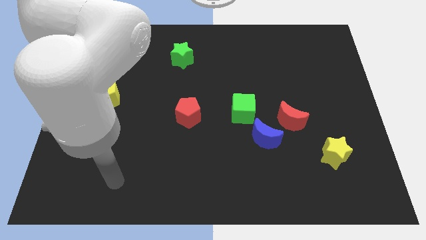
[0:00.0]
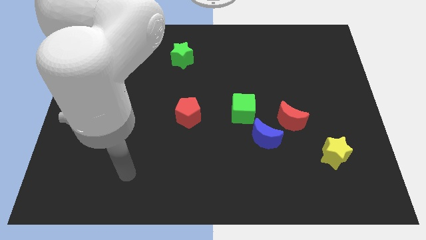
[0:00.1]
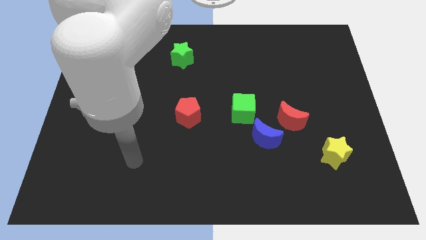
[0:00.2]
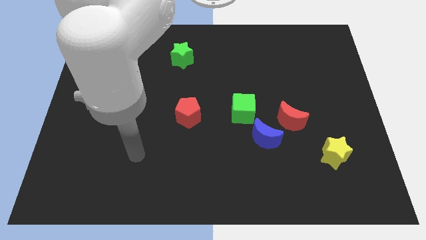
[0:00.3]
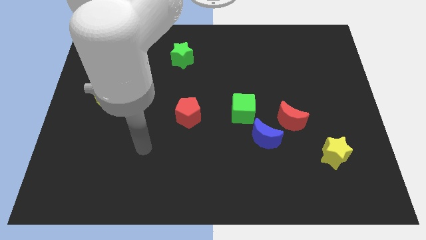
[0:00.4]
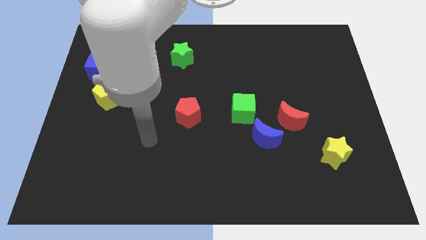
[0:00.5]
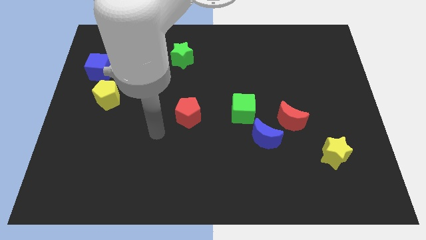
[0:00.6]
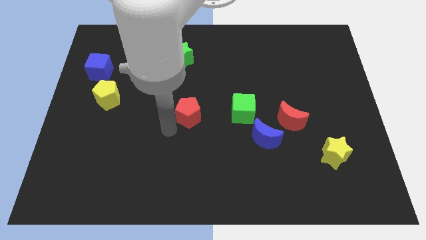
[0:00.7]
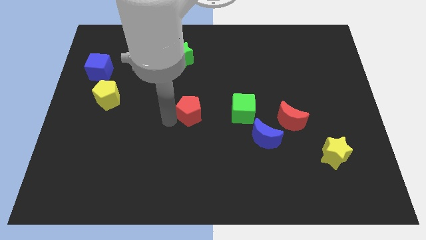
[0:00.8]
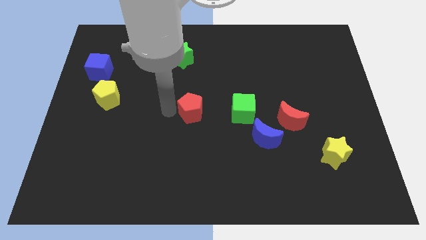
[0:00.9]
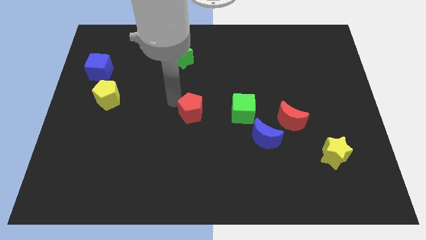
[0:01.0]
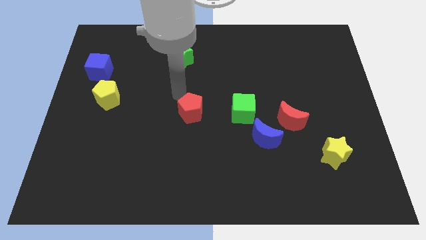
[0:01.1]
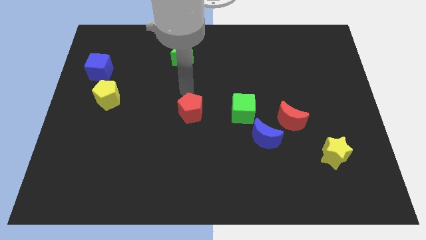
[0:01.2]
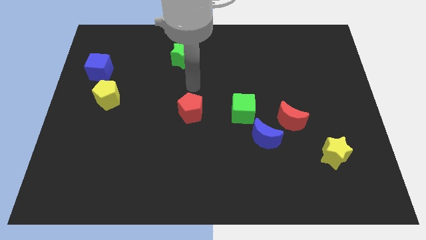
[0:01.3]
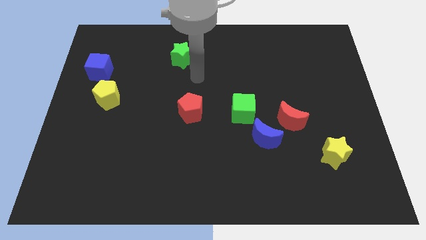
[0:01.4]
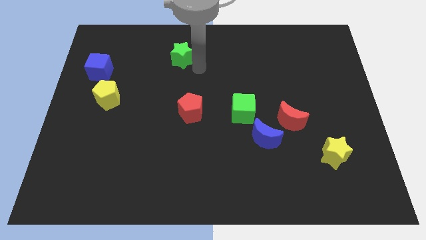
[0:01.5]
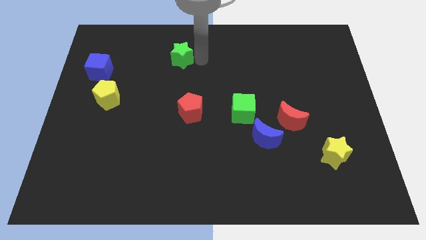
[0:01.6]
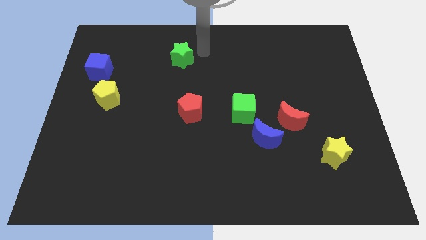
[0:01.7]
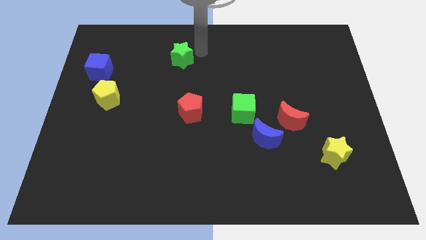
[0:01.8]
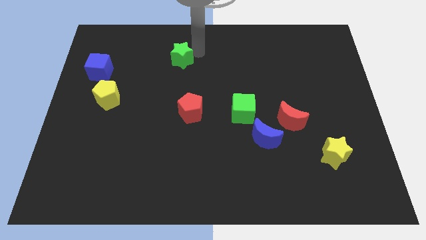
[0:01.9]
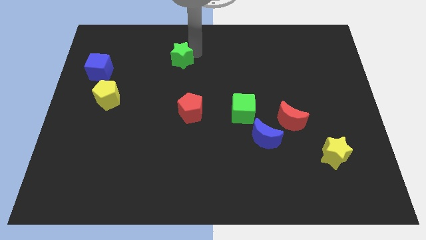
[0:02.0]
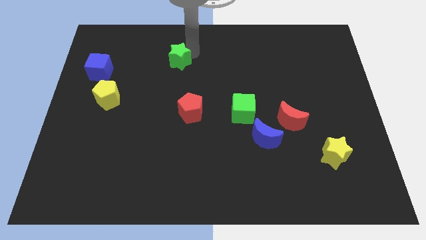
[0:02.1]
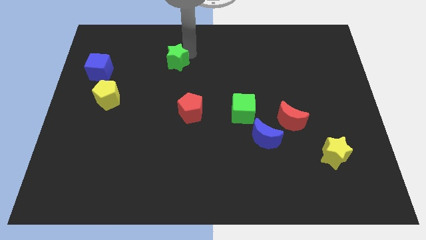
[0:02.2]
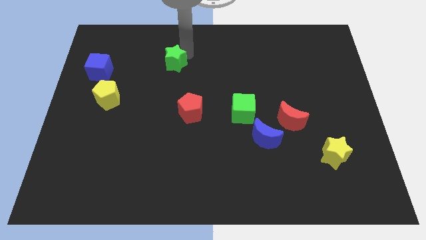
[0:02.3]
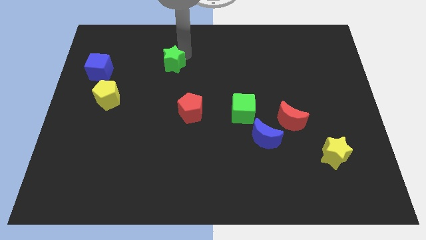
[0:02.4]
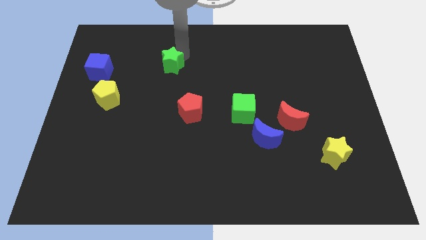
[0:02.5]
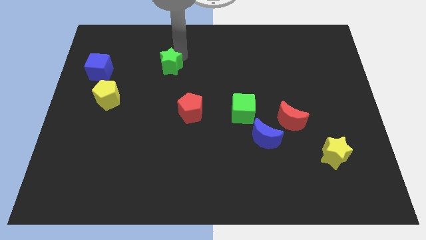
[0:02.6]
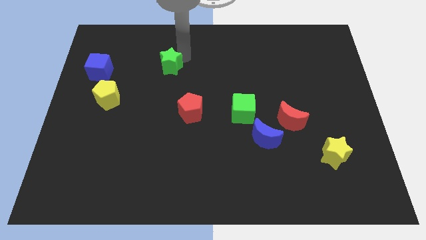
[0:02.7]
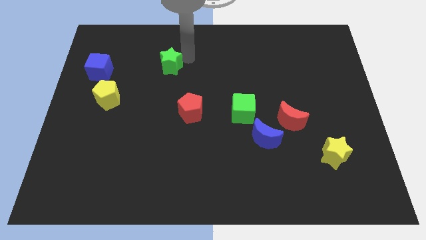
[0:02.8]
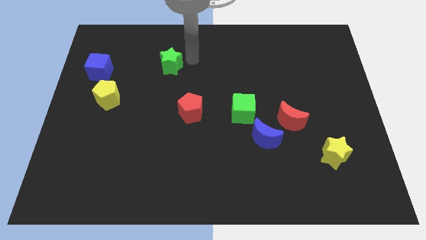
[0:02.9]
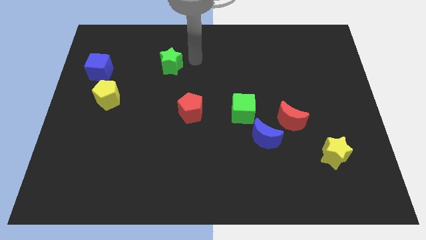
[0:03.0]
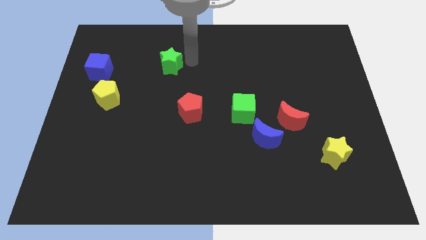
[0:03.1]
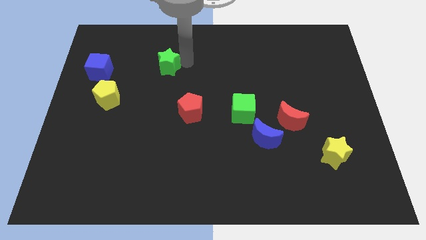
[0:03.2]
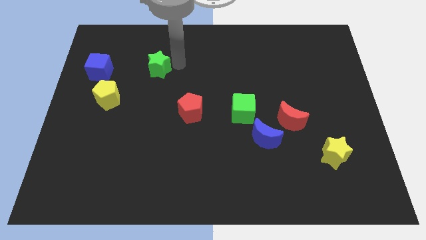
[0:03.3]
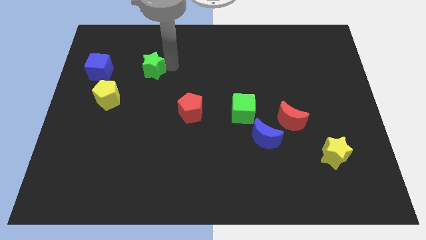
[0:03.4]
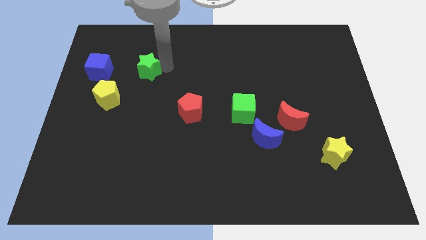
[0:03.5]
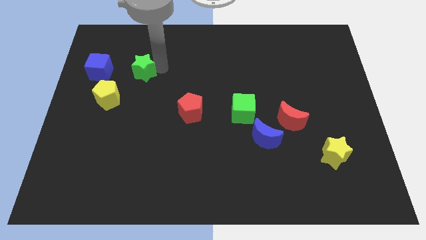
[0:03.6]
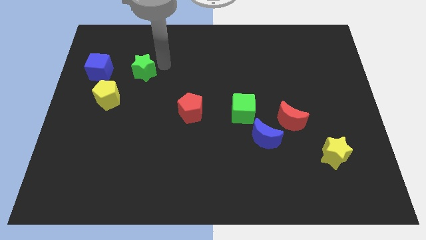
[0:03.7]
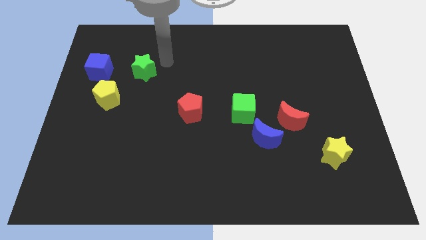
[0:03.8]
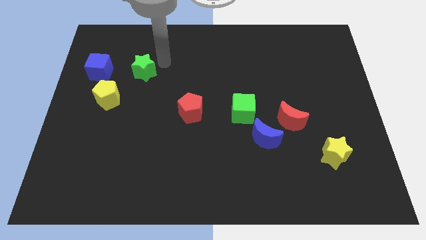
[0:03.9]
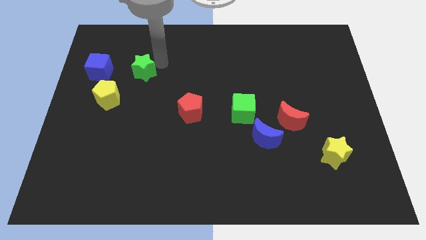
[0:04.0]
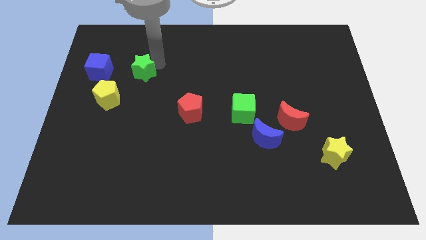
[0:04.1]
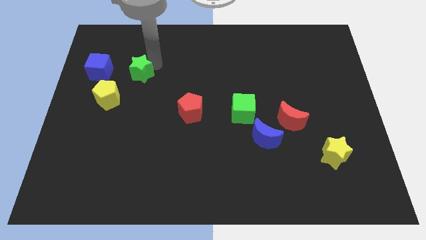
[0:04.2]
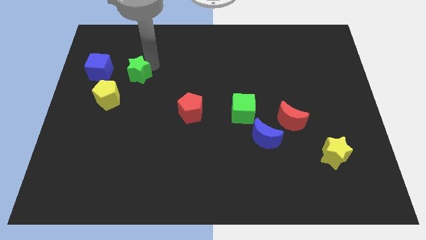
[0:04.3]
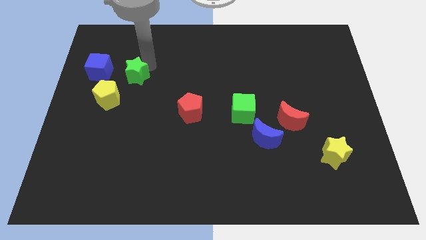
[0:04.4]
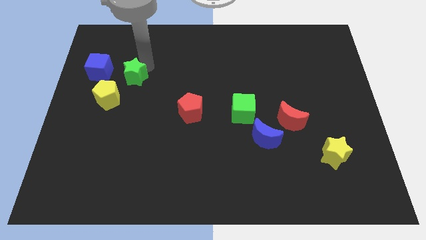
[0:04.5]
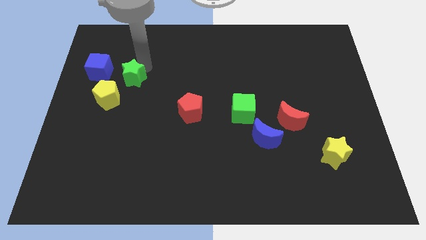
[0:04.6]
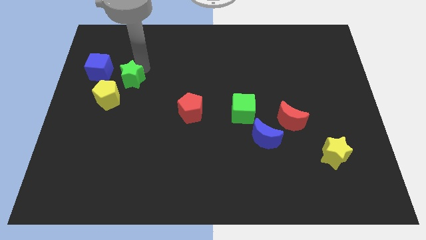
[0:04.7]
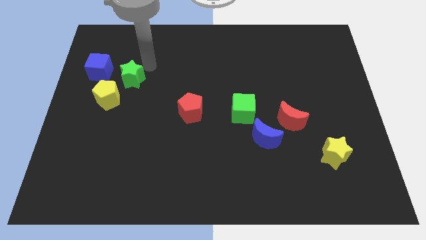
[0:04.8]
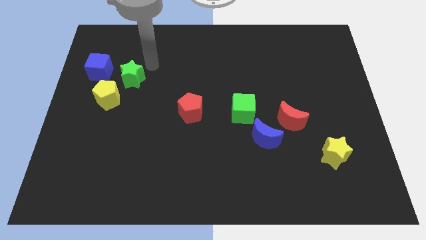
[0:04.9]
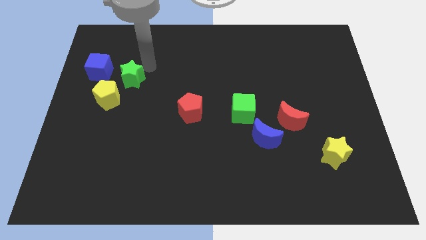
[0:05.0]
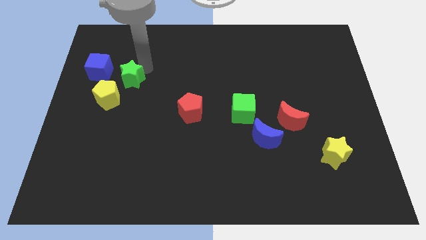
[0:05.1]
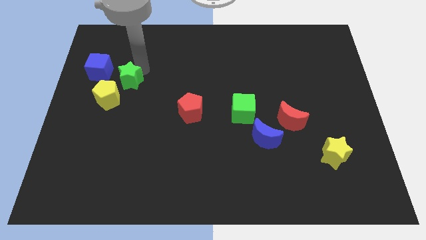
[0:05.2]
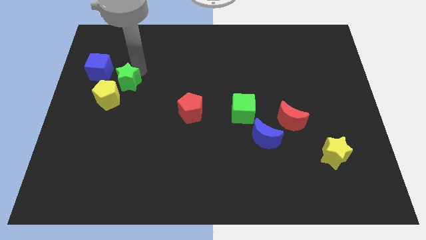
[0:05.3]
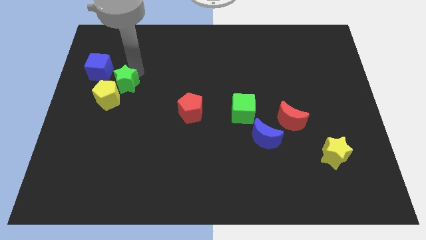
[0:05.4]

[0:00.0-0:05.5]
put the green star to the yellow pentagon
